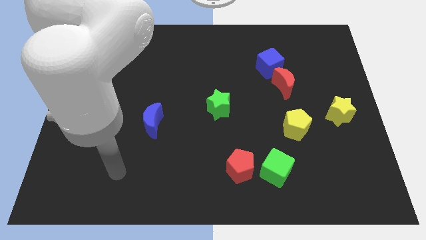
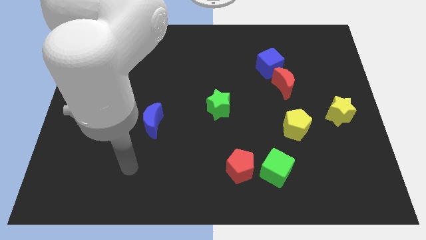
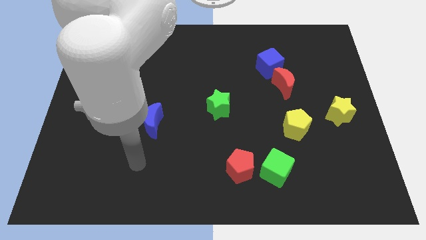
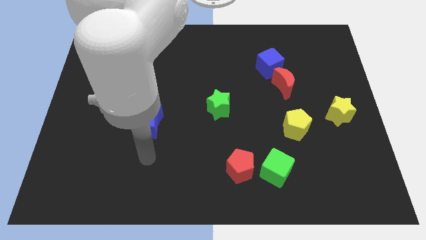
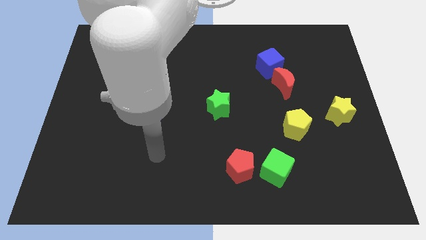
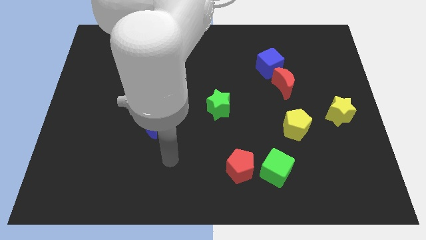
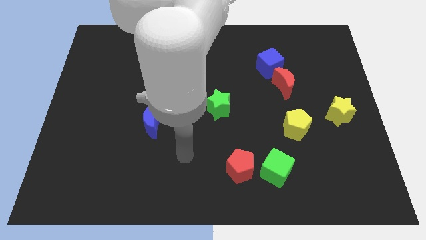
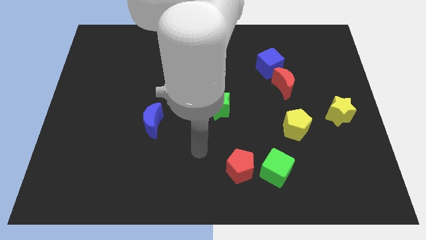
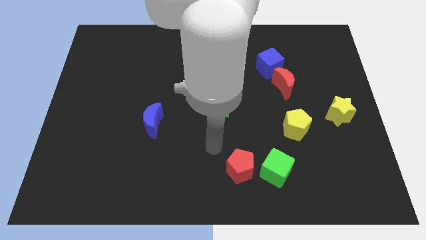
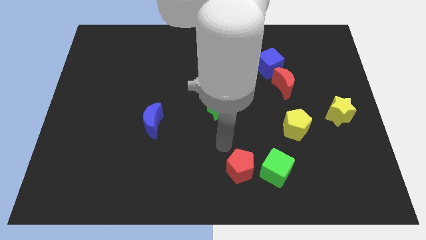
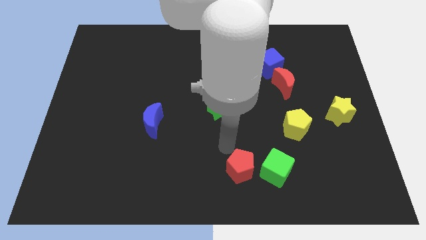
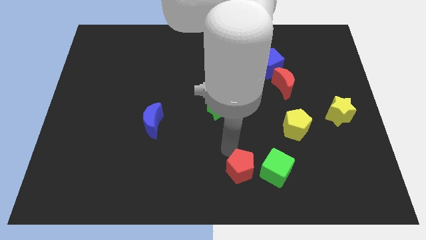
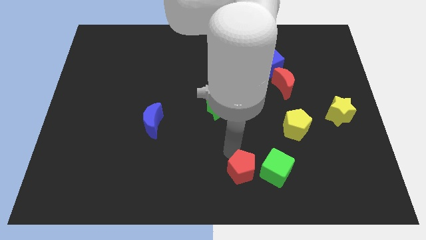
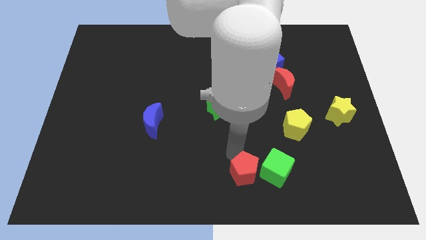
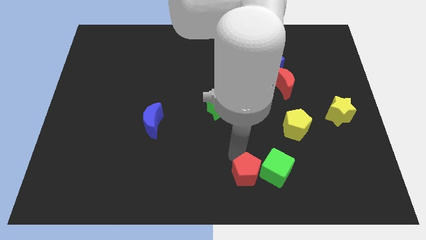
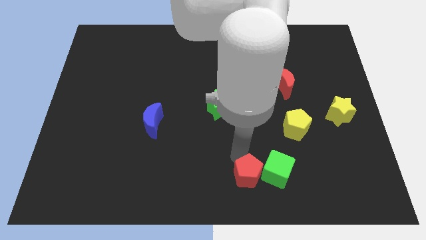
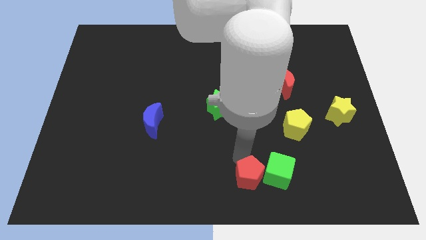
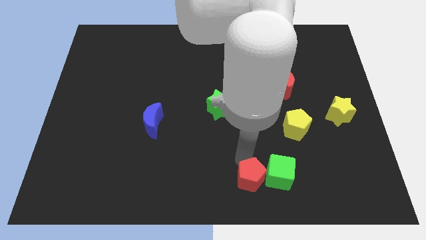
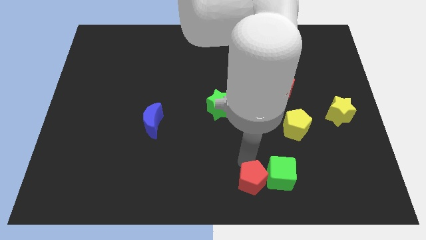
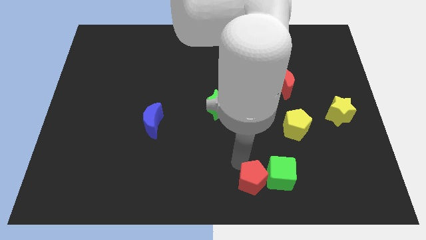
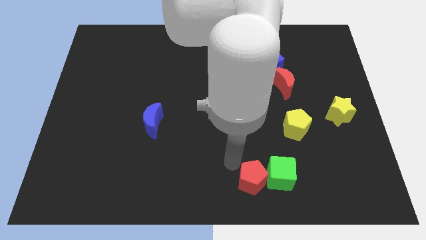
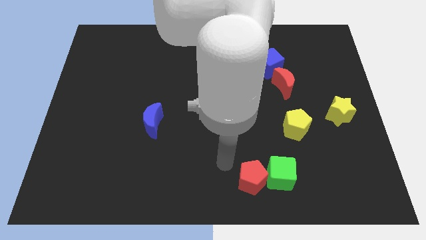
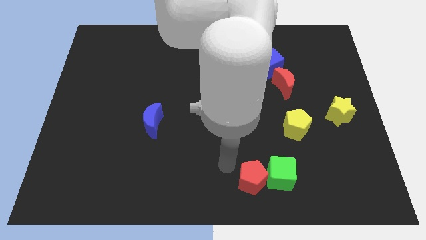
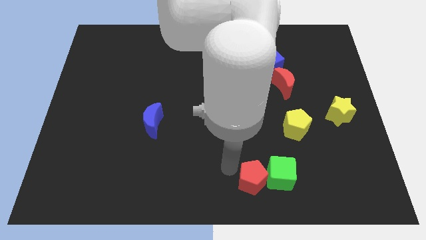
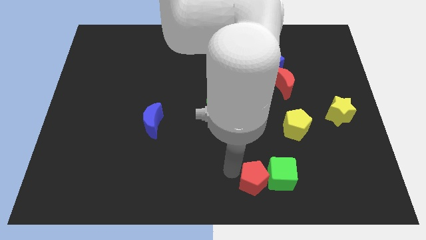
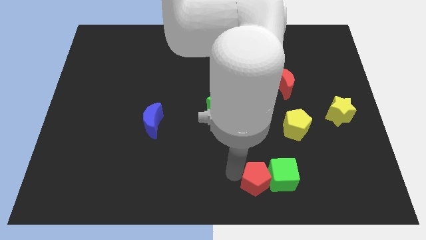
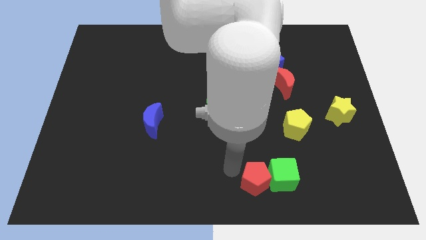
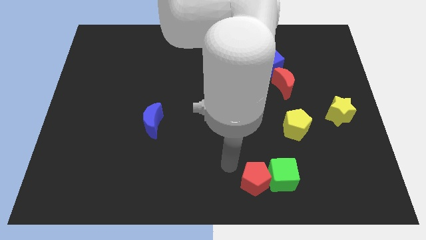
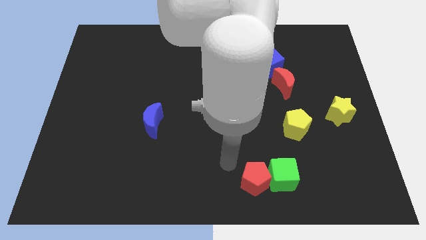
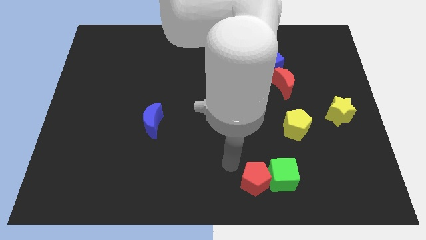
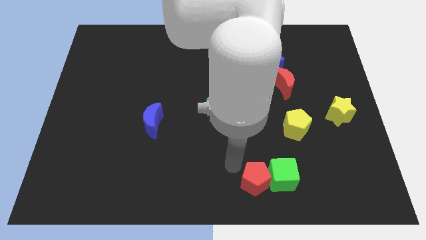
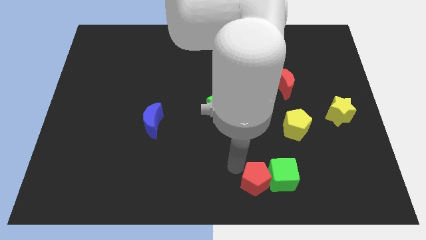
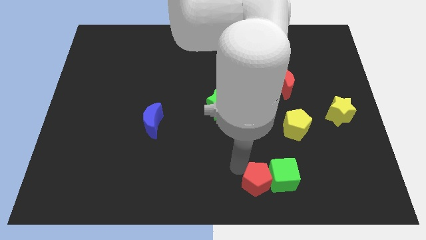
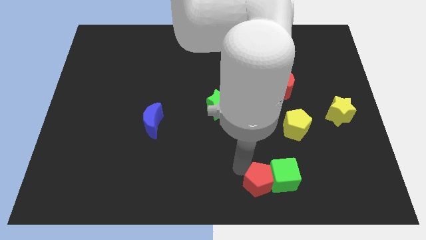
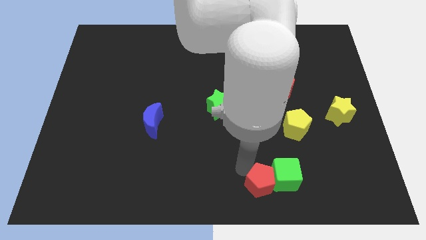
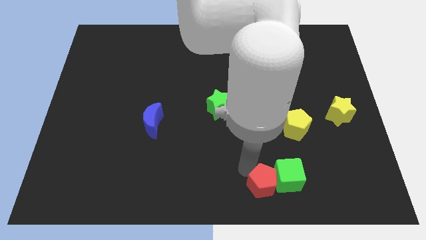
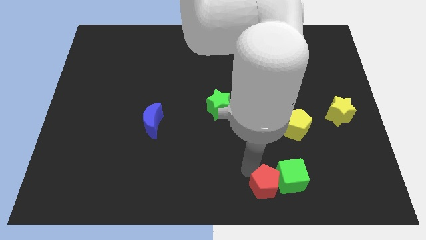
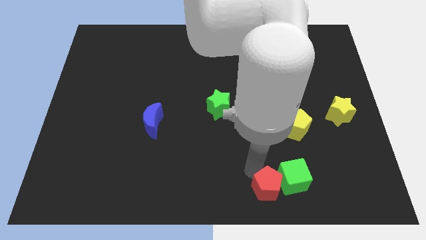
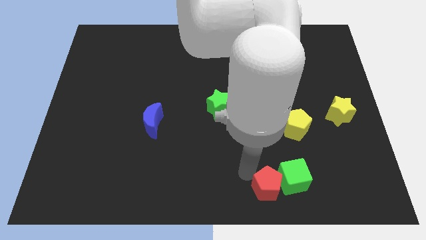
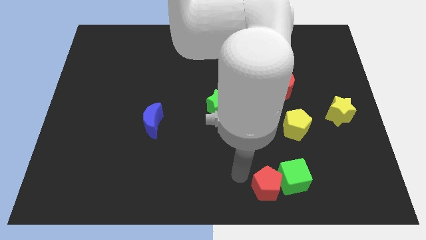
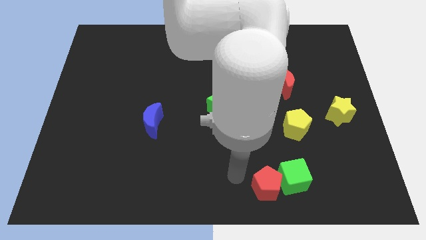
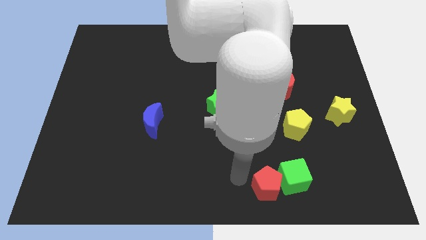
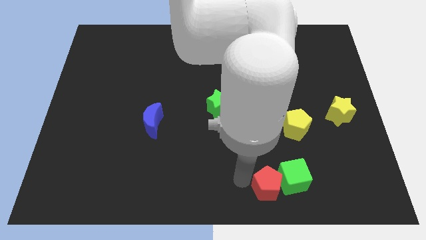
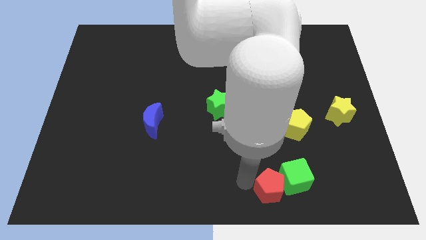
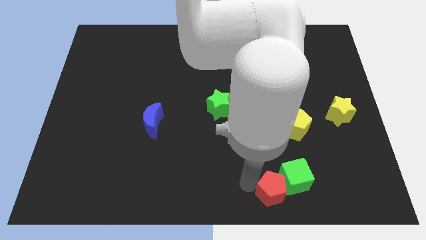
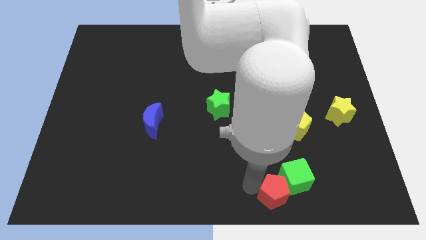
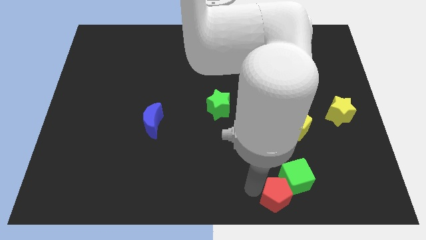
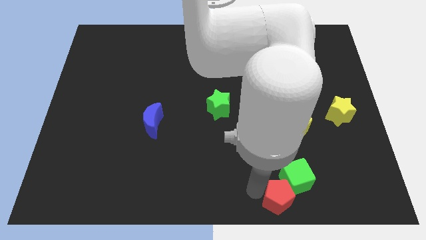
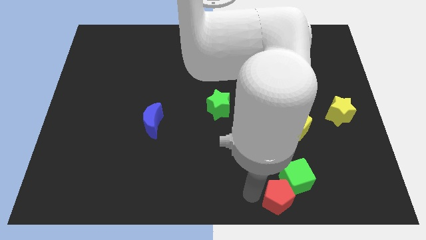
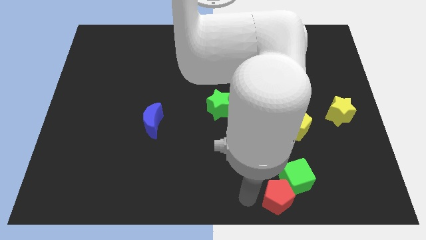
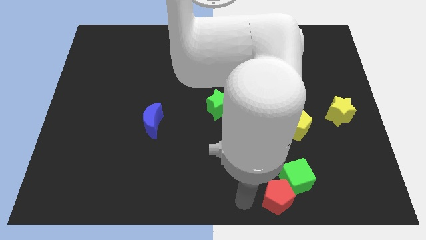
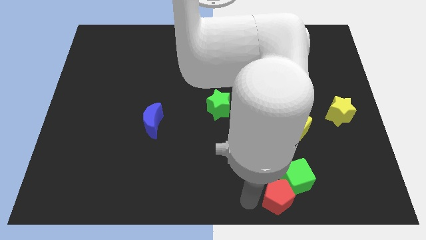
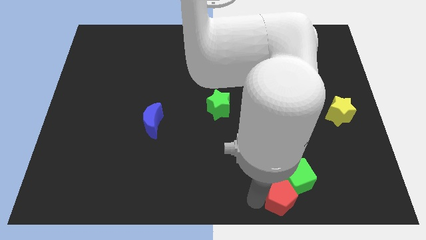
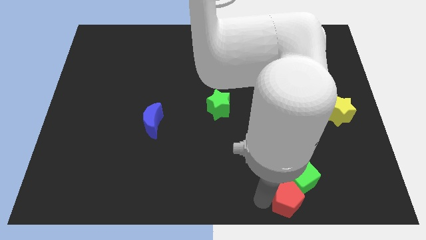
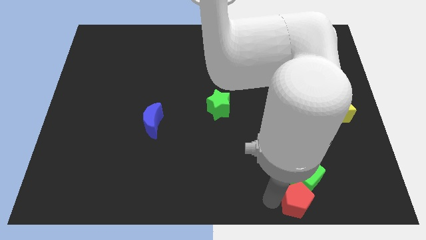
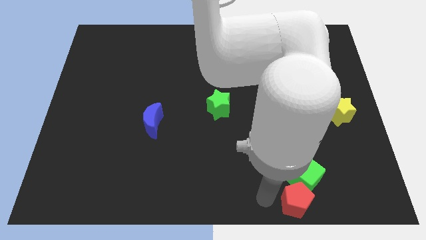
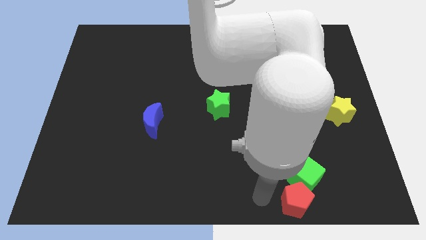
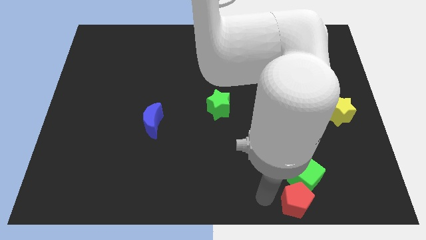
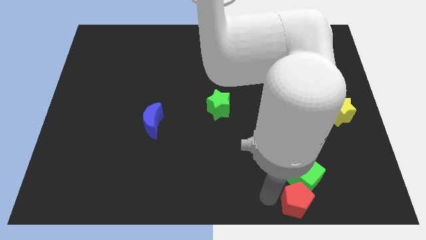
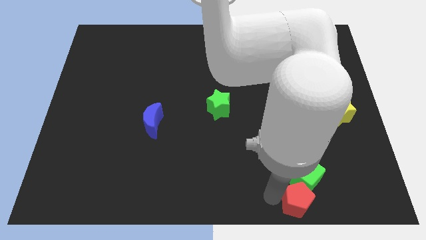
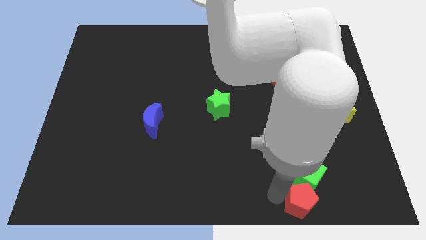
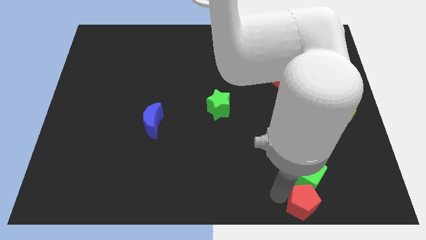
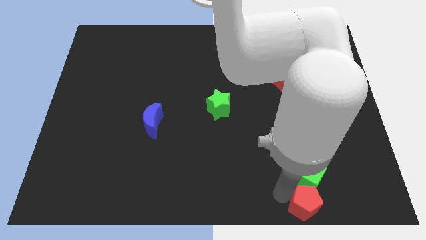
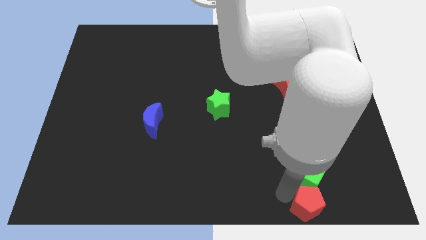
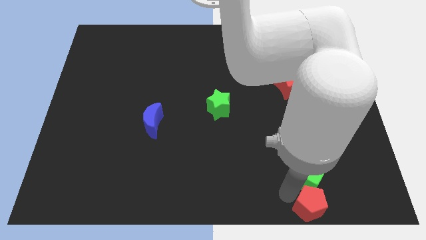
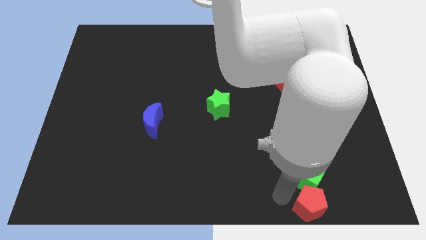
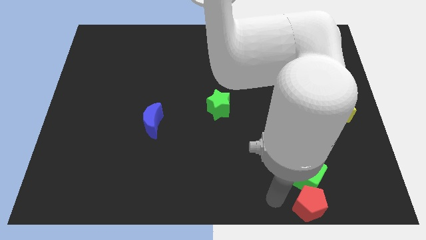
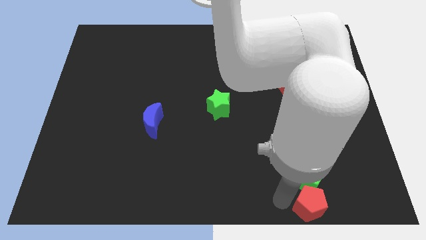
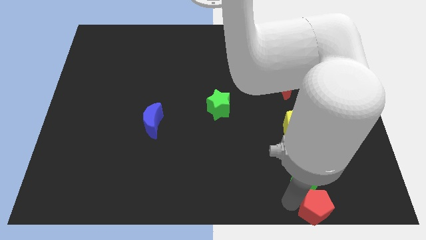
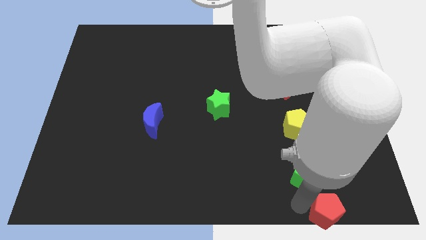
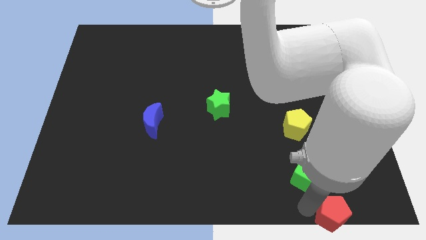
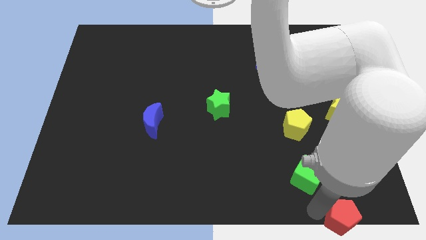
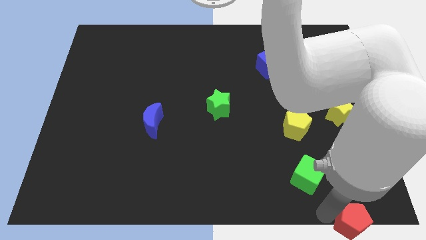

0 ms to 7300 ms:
put the red pentagon to the bottom right of the board
